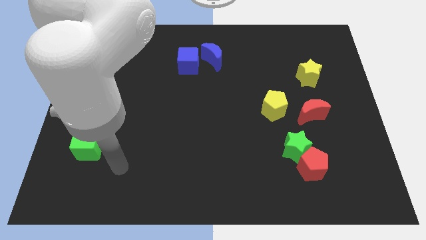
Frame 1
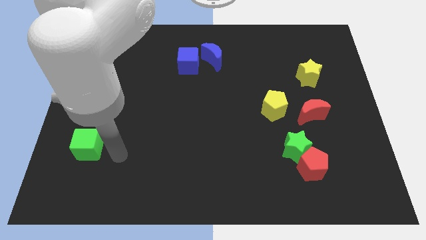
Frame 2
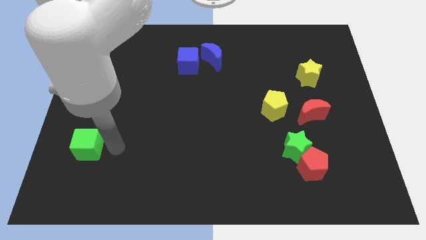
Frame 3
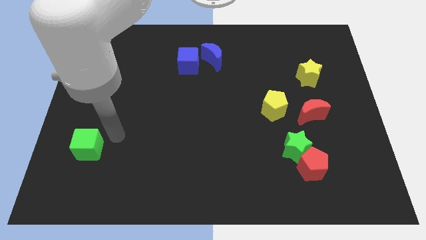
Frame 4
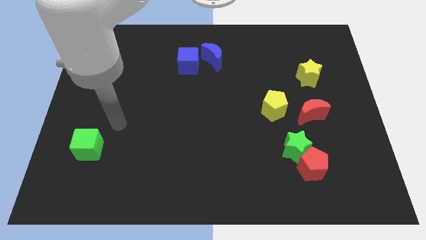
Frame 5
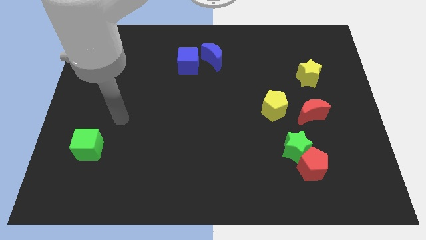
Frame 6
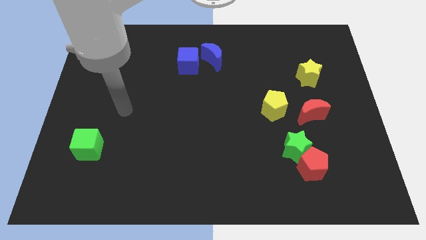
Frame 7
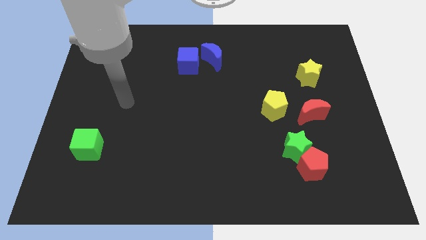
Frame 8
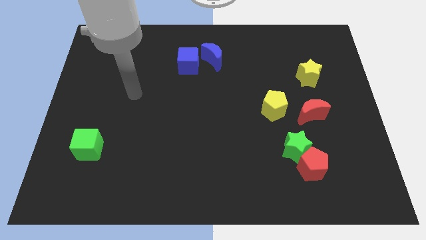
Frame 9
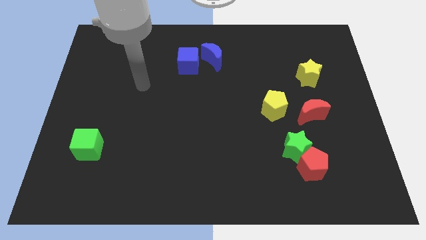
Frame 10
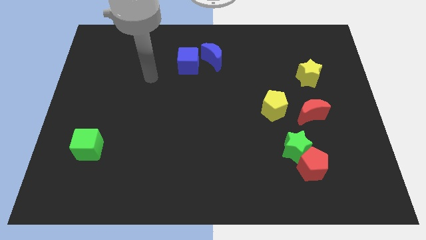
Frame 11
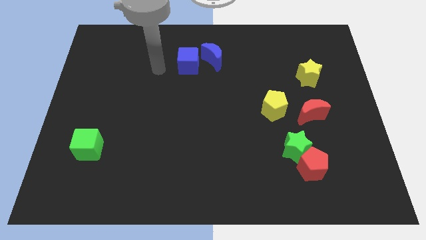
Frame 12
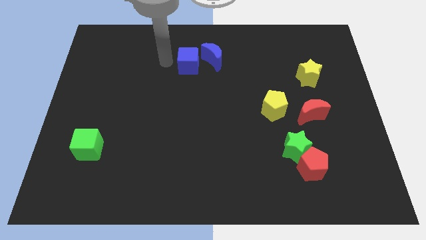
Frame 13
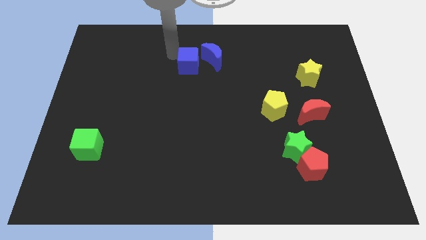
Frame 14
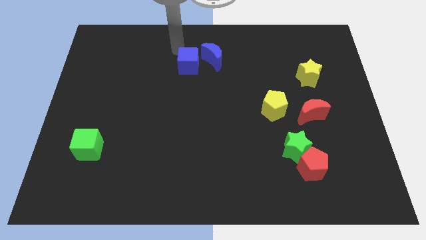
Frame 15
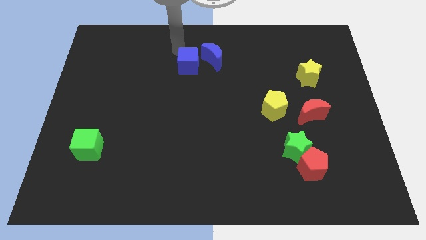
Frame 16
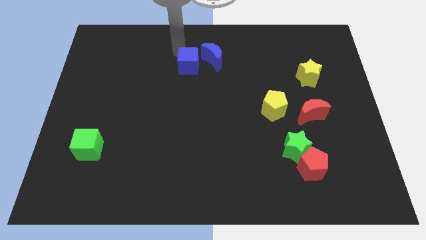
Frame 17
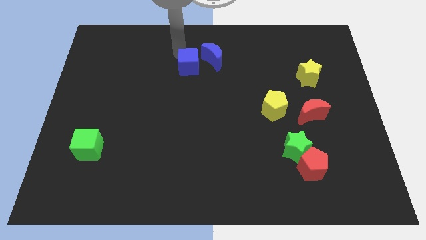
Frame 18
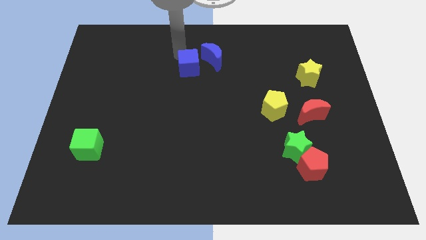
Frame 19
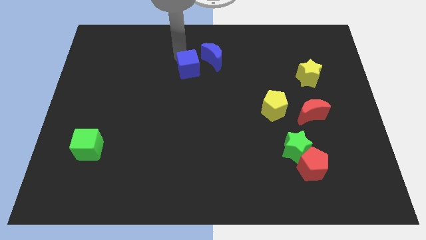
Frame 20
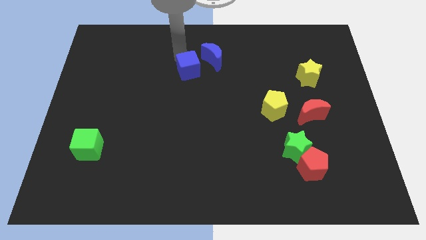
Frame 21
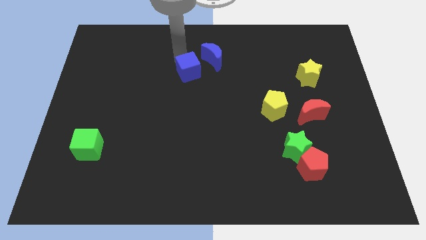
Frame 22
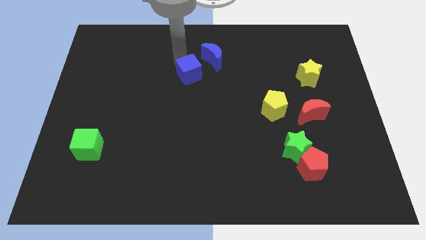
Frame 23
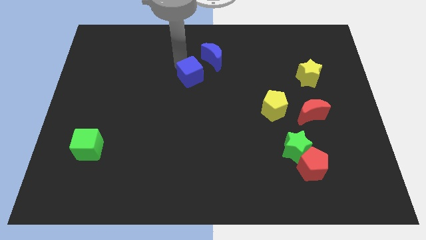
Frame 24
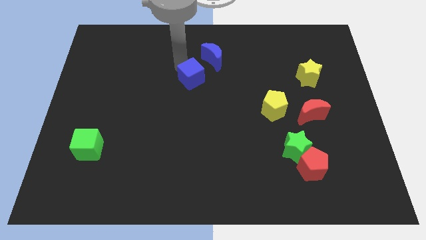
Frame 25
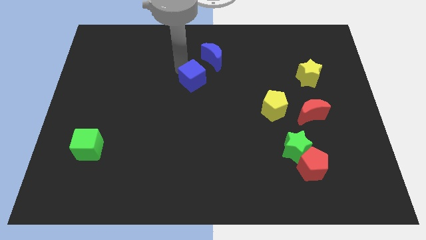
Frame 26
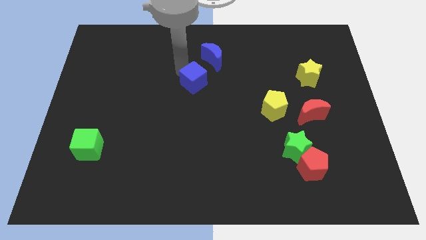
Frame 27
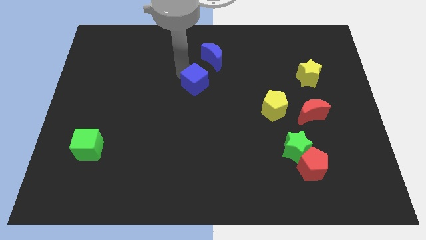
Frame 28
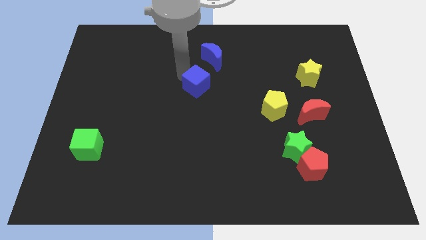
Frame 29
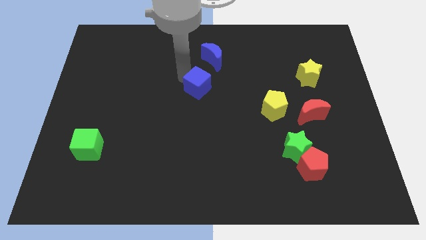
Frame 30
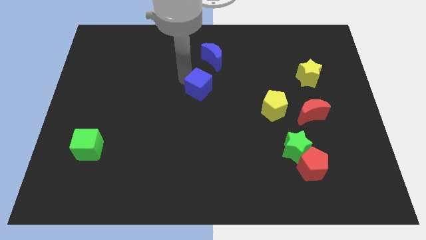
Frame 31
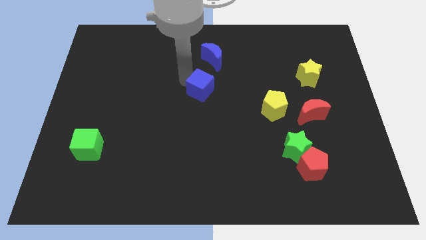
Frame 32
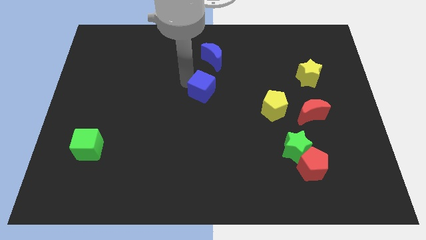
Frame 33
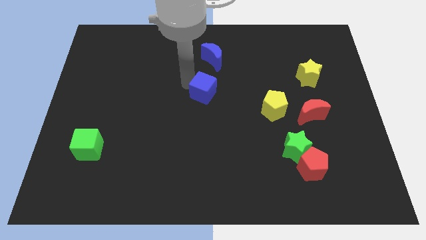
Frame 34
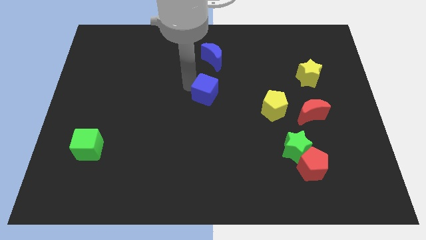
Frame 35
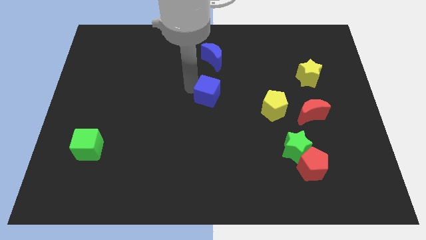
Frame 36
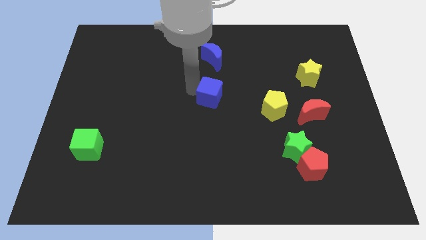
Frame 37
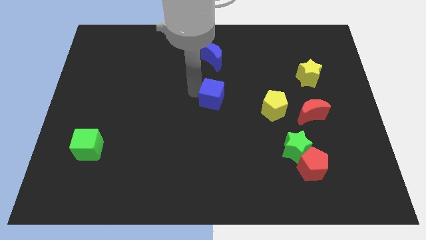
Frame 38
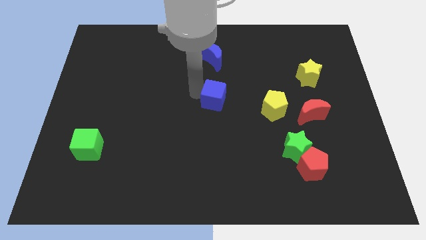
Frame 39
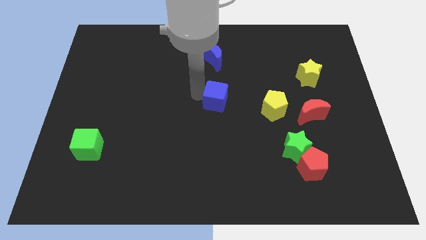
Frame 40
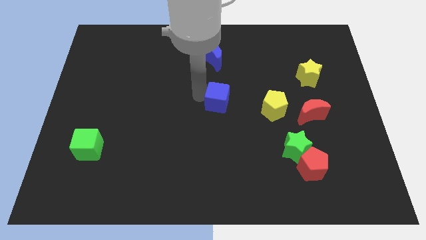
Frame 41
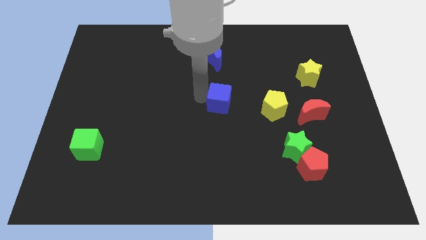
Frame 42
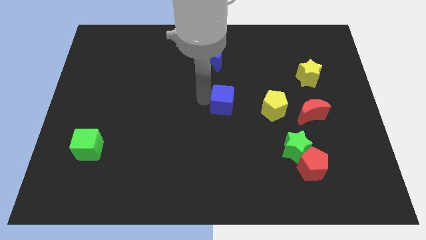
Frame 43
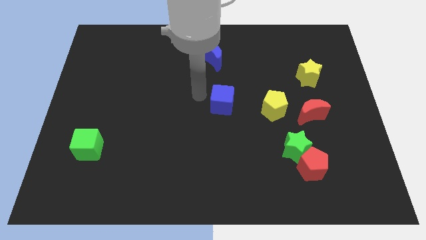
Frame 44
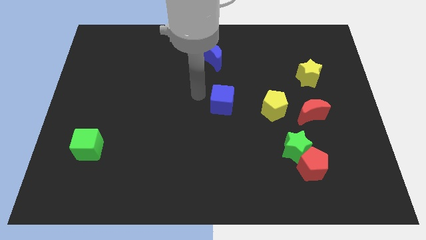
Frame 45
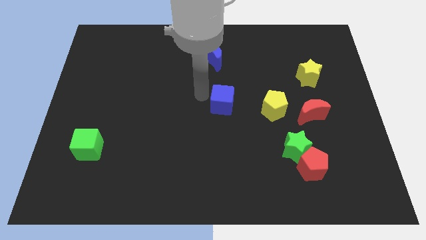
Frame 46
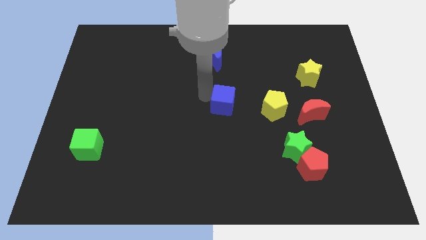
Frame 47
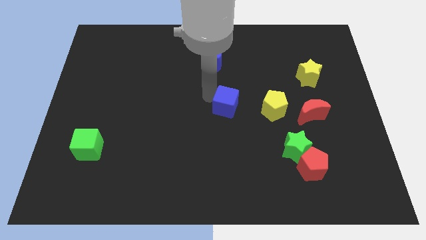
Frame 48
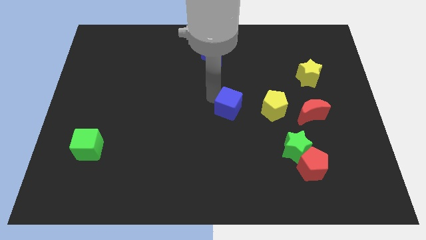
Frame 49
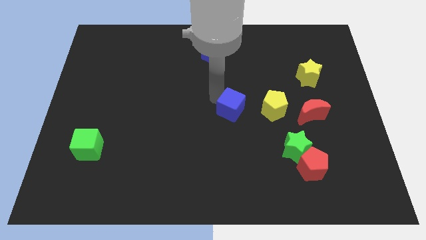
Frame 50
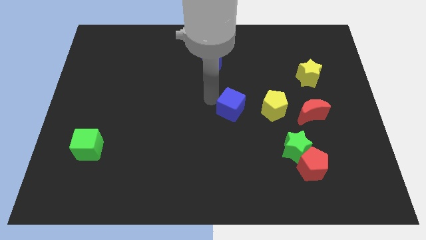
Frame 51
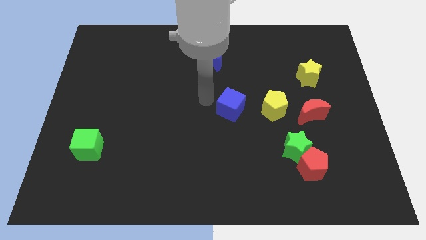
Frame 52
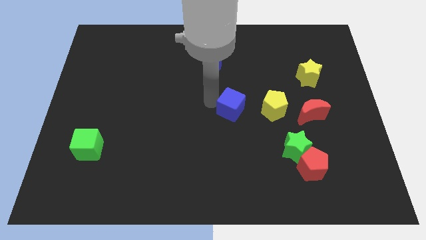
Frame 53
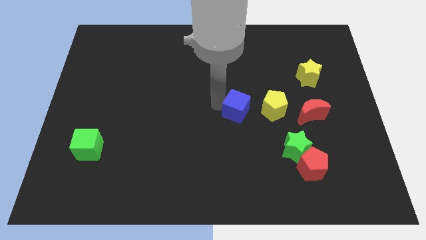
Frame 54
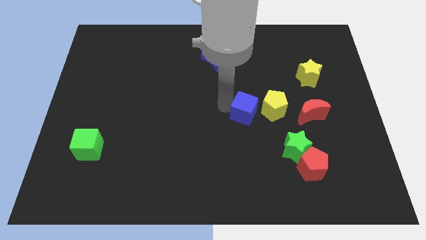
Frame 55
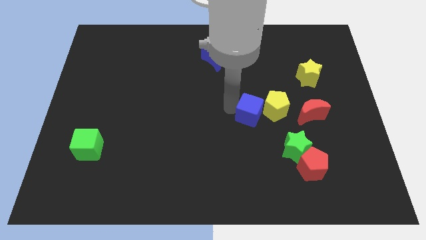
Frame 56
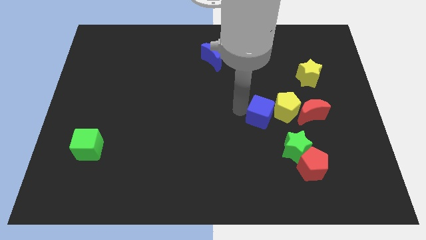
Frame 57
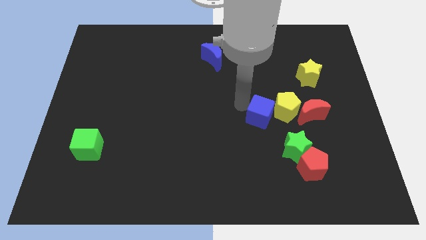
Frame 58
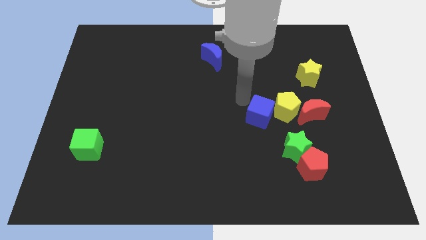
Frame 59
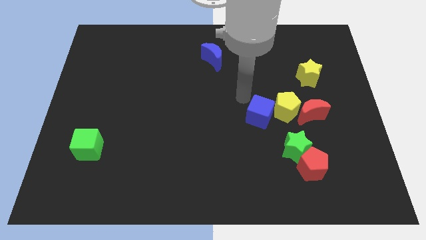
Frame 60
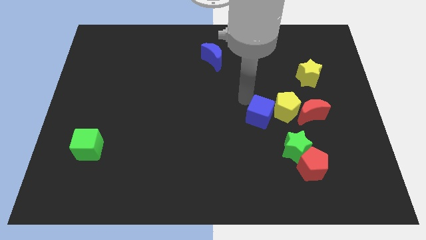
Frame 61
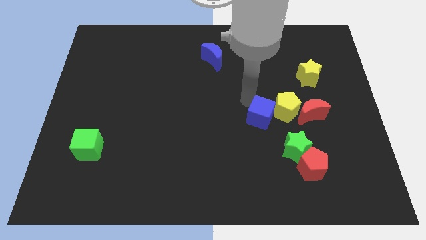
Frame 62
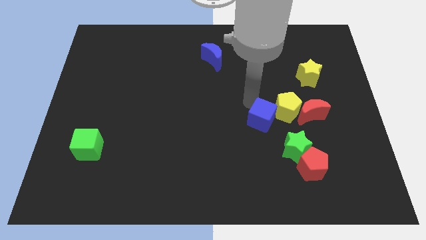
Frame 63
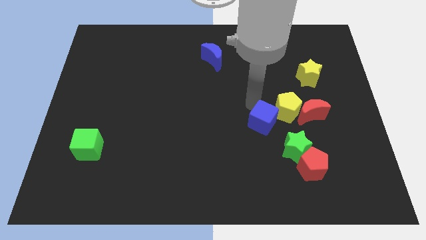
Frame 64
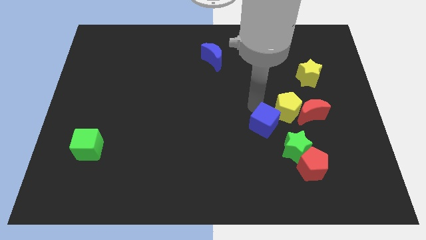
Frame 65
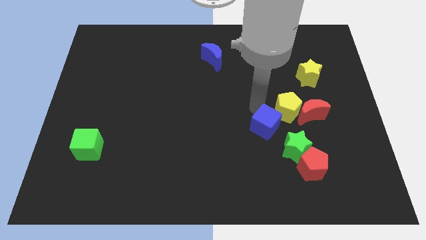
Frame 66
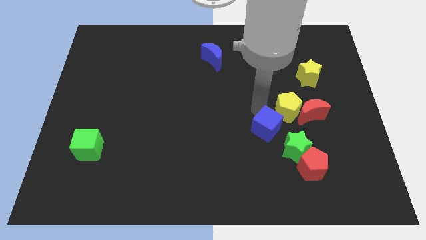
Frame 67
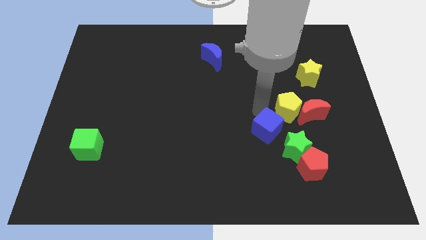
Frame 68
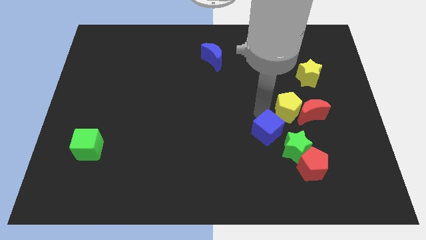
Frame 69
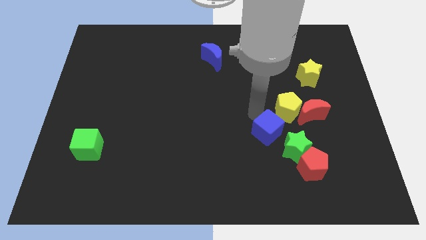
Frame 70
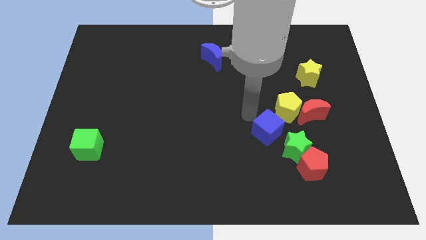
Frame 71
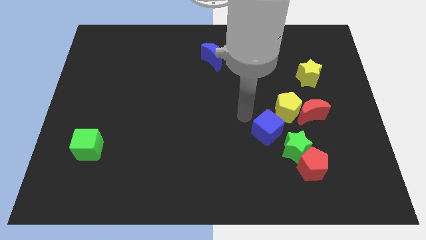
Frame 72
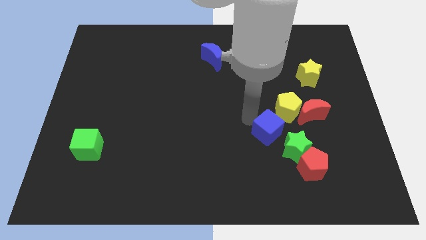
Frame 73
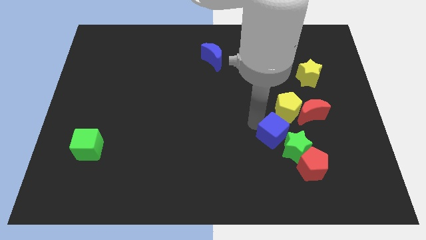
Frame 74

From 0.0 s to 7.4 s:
slide the blue cube towards the green star

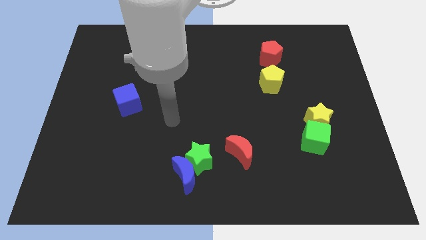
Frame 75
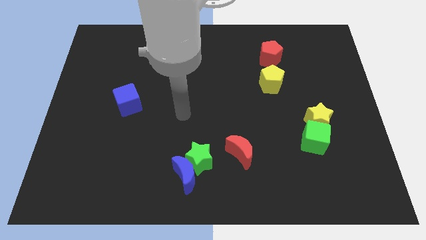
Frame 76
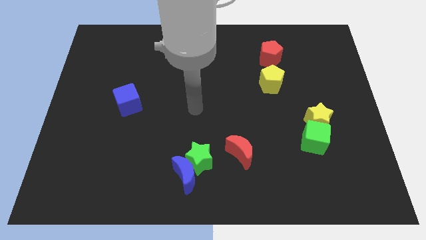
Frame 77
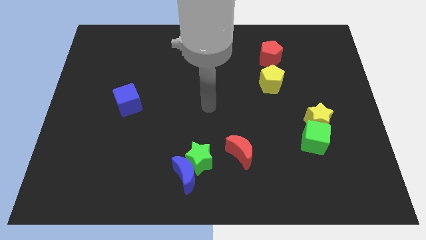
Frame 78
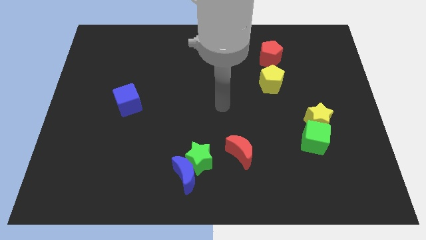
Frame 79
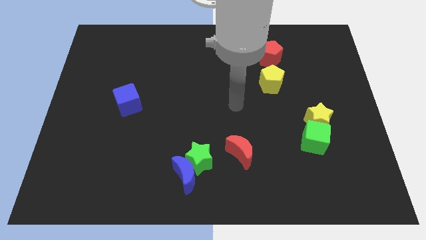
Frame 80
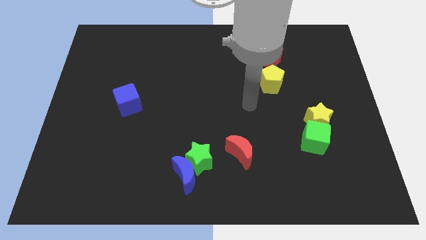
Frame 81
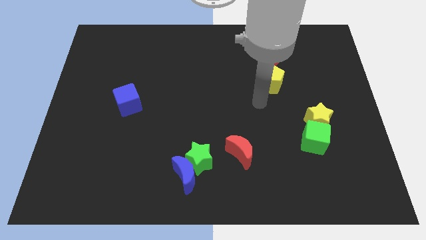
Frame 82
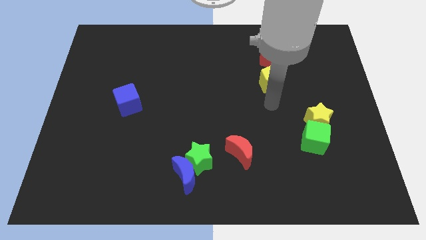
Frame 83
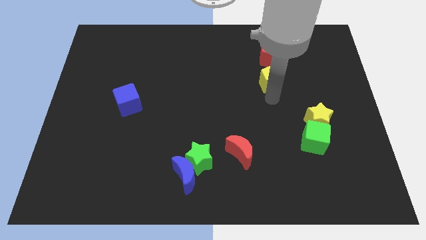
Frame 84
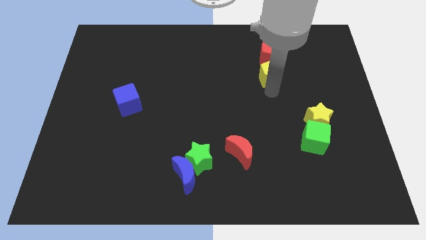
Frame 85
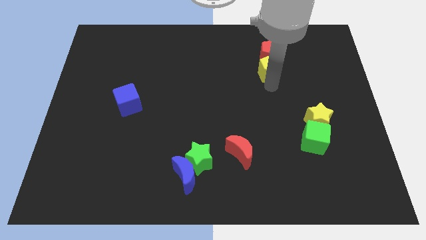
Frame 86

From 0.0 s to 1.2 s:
put the yellow pentagon to the red pentagon
